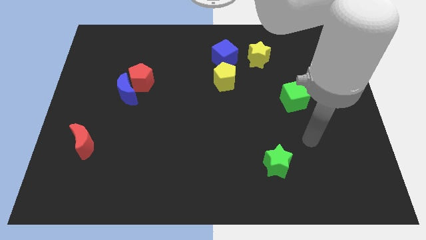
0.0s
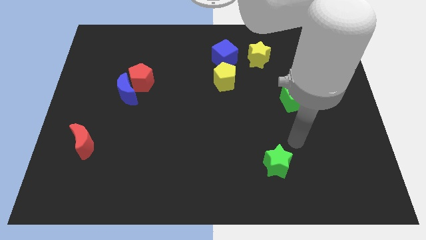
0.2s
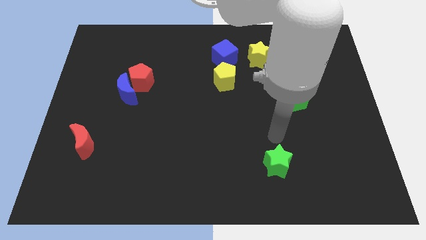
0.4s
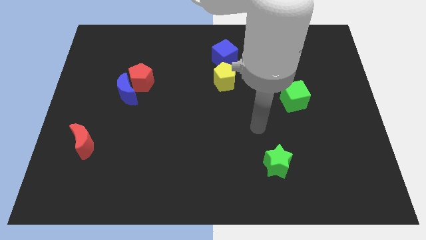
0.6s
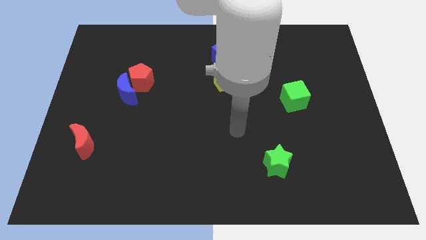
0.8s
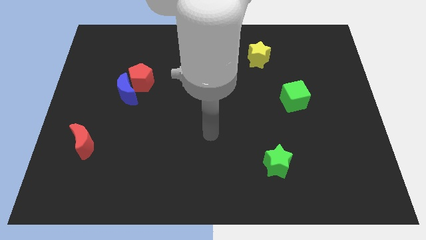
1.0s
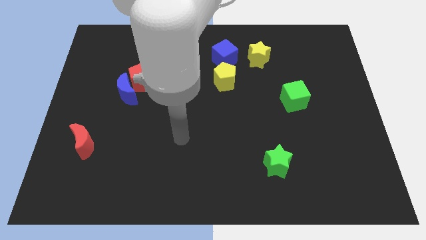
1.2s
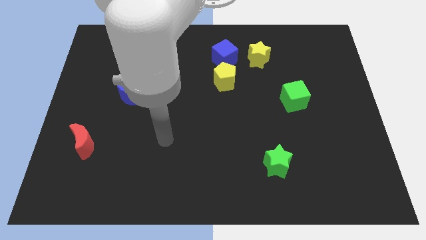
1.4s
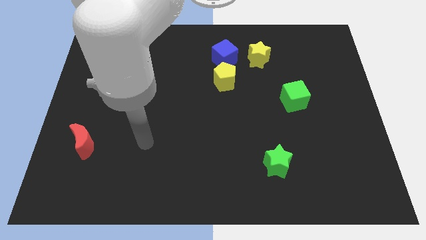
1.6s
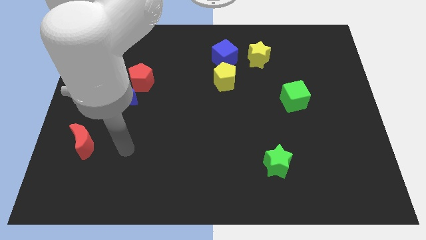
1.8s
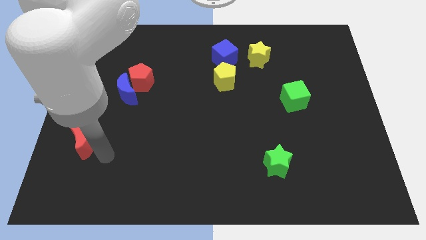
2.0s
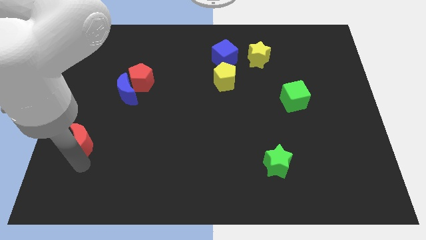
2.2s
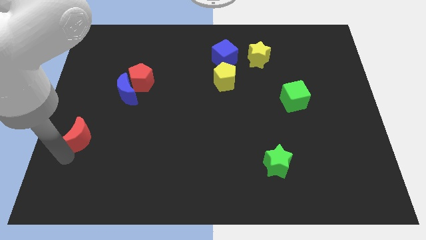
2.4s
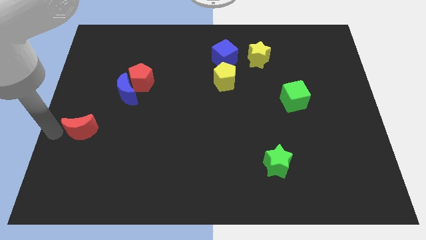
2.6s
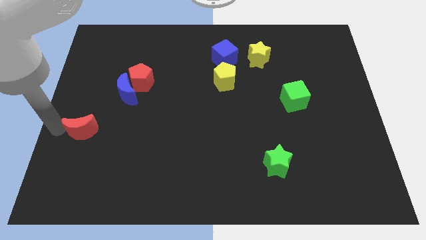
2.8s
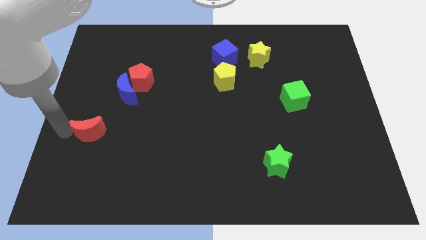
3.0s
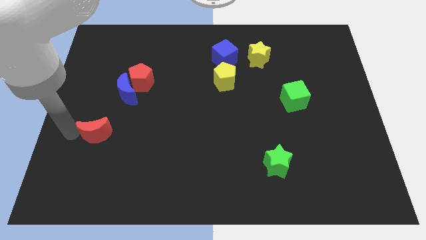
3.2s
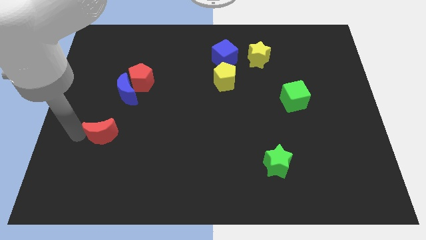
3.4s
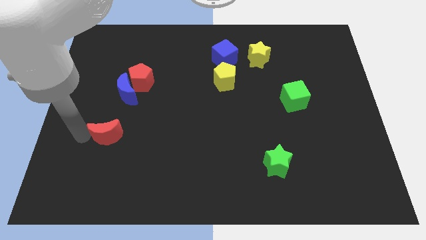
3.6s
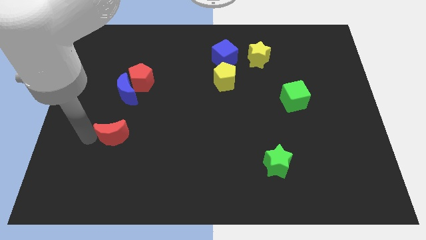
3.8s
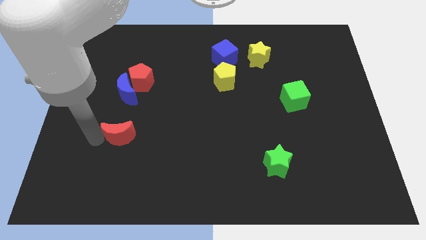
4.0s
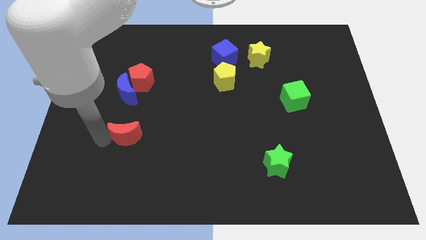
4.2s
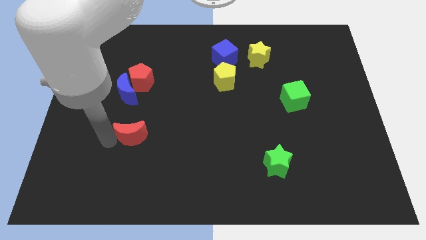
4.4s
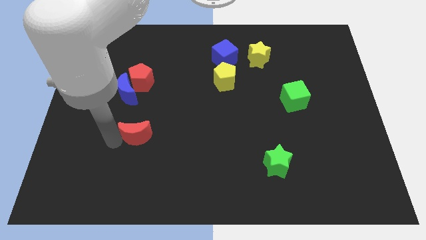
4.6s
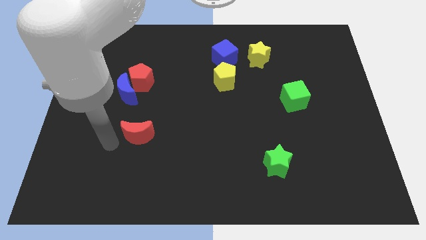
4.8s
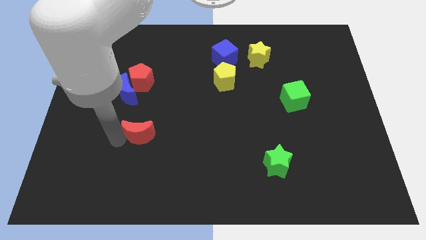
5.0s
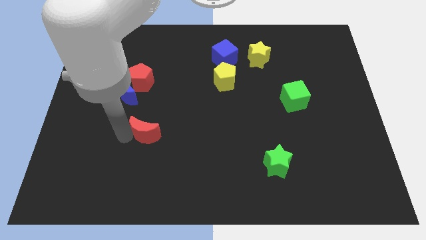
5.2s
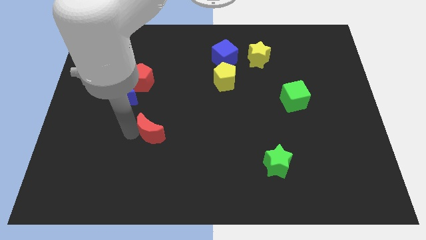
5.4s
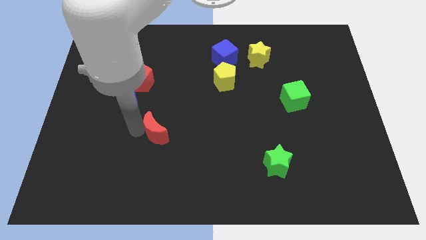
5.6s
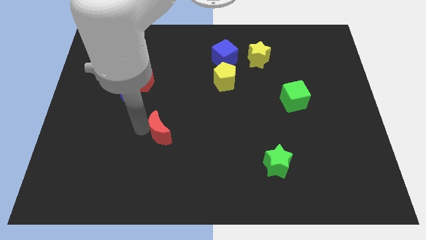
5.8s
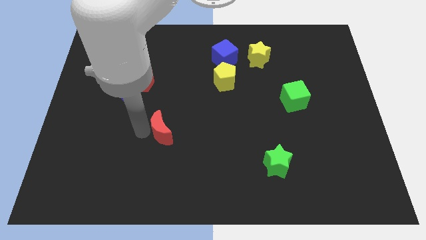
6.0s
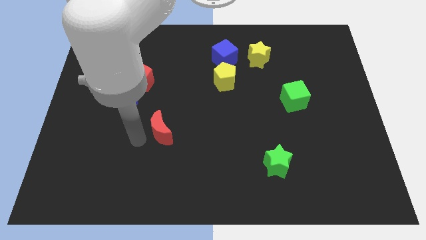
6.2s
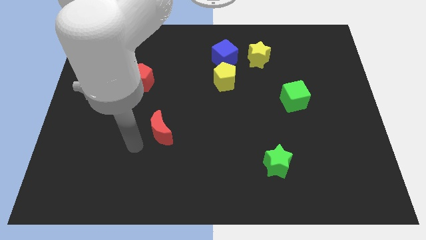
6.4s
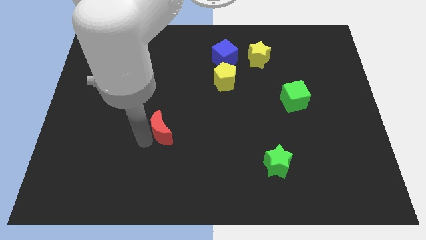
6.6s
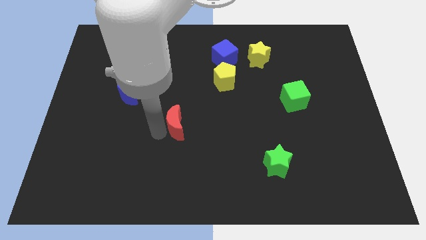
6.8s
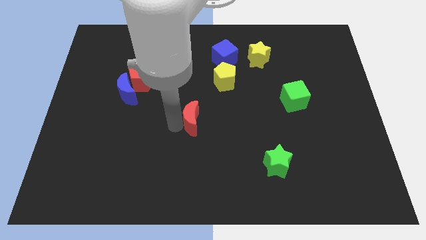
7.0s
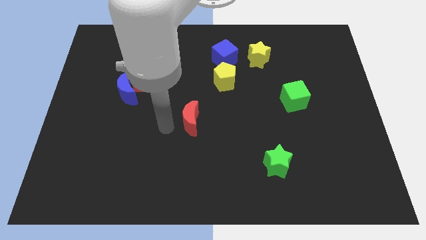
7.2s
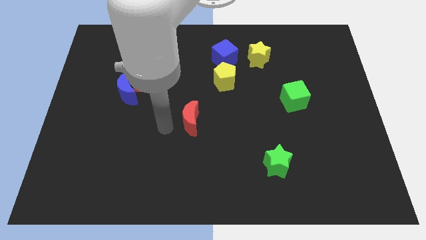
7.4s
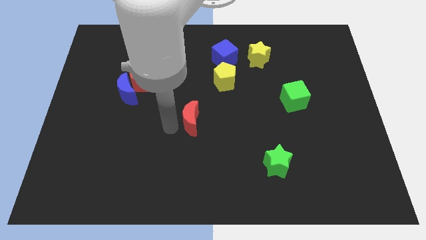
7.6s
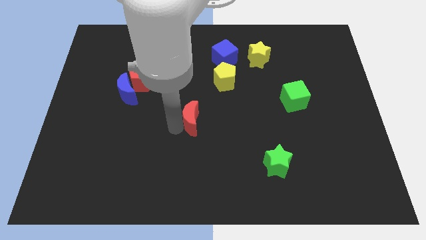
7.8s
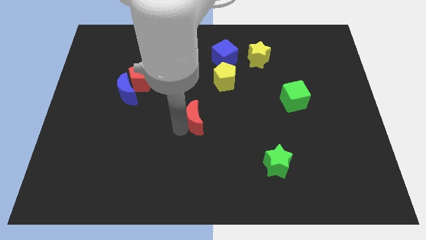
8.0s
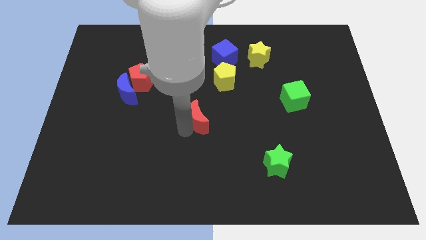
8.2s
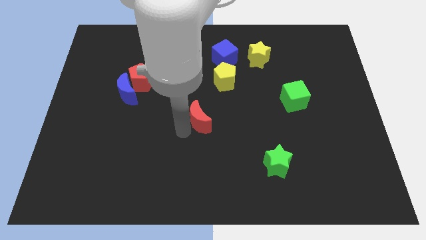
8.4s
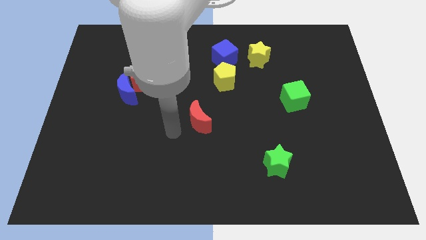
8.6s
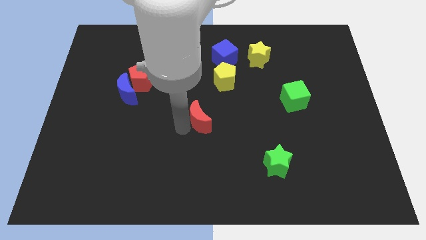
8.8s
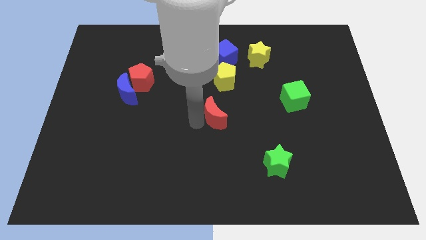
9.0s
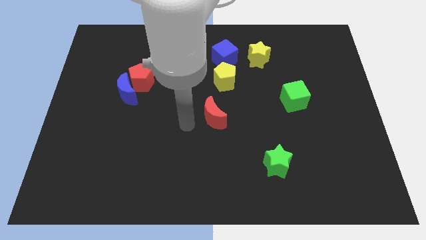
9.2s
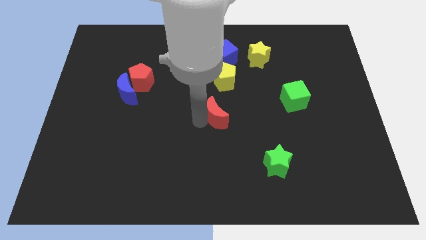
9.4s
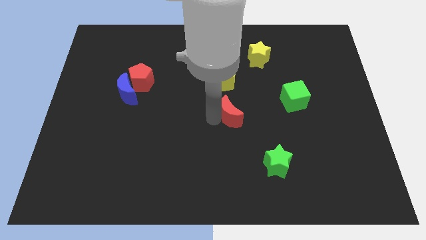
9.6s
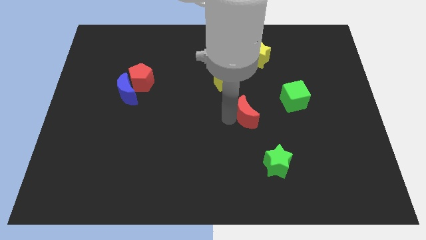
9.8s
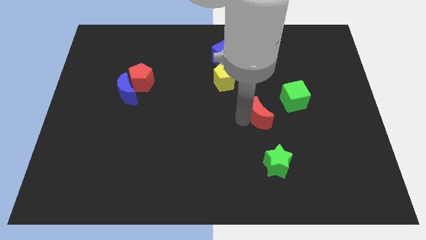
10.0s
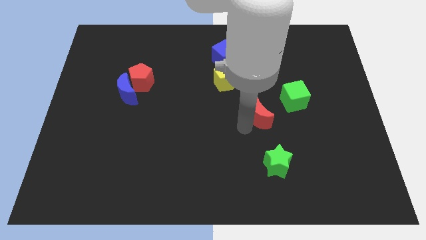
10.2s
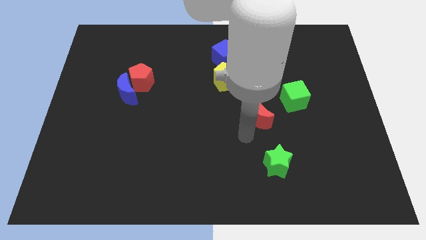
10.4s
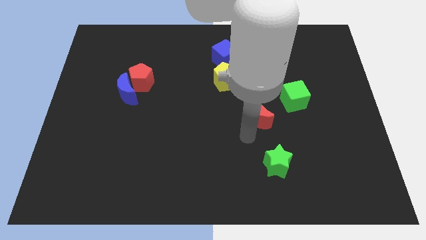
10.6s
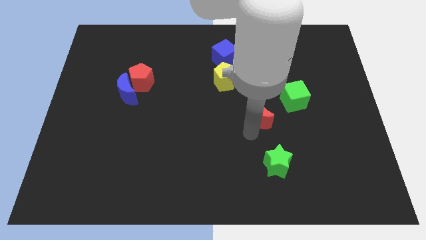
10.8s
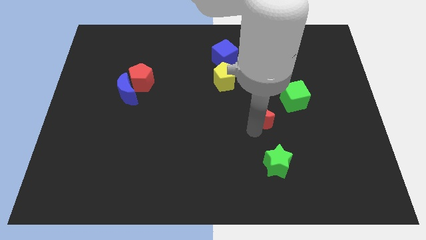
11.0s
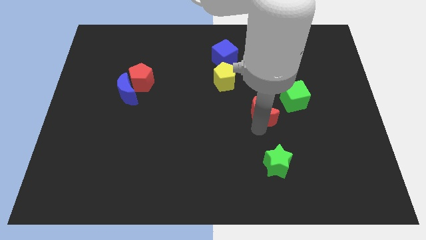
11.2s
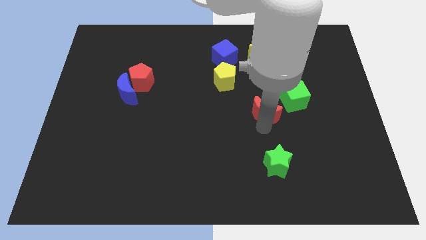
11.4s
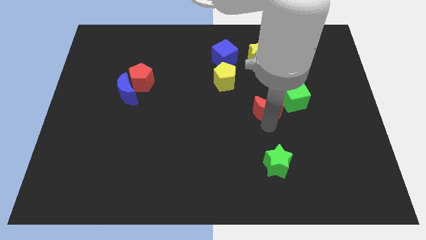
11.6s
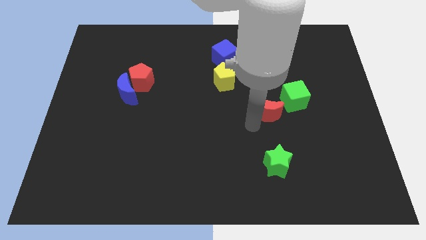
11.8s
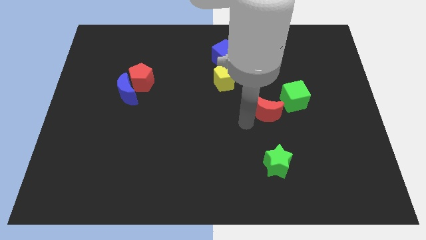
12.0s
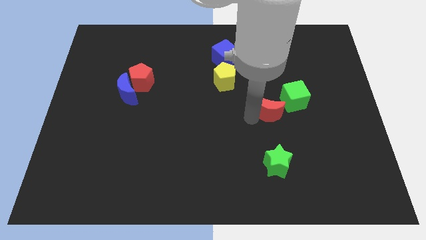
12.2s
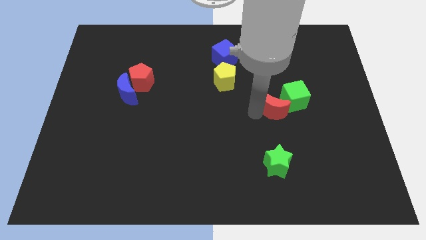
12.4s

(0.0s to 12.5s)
push the red moon to the green cube

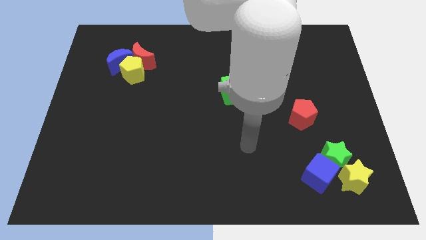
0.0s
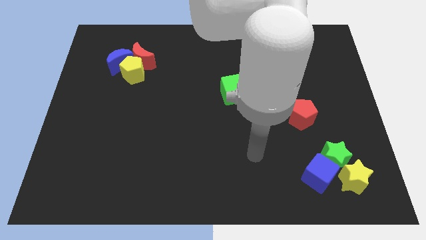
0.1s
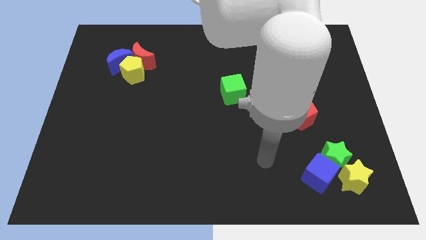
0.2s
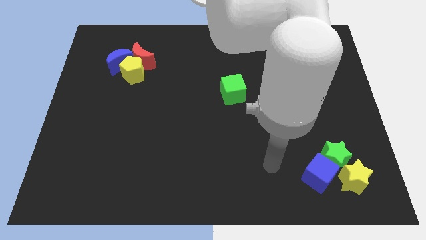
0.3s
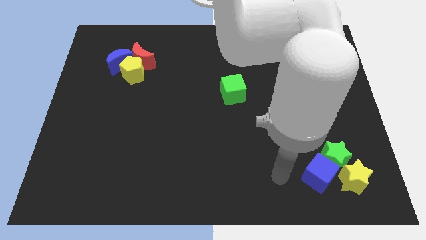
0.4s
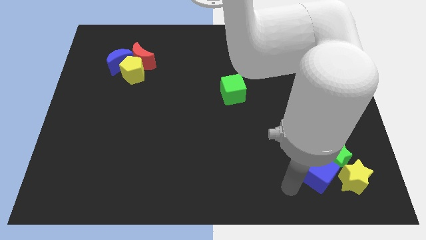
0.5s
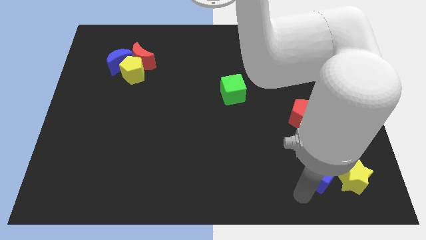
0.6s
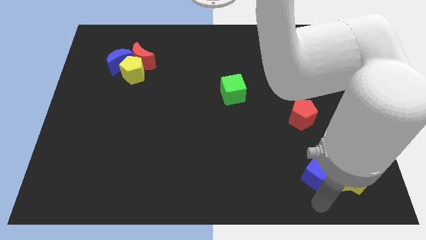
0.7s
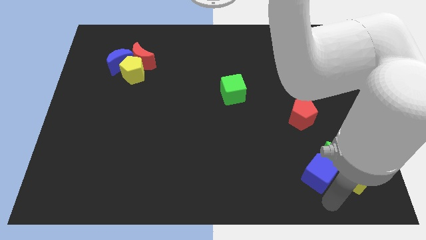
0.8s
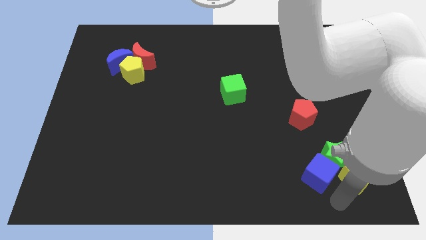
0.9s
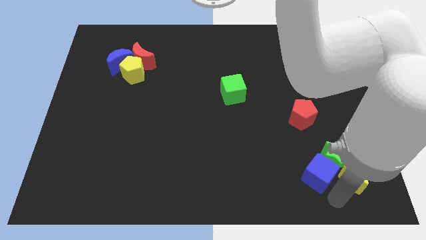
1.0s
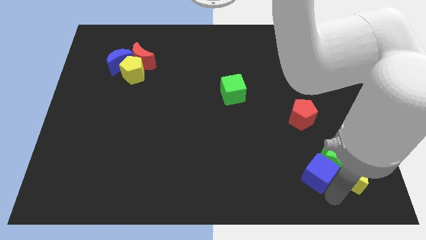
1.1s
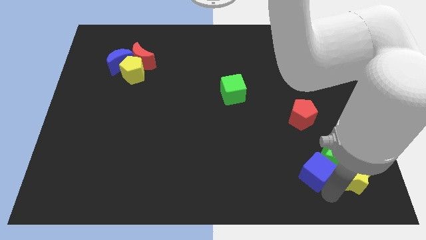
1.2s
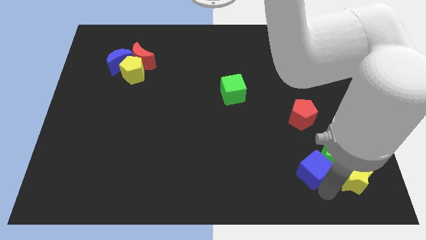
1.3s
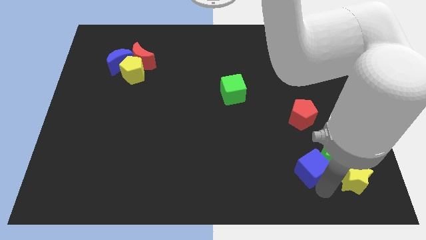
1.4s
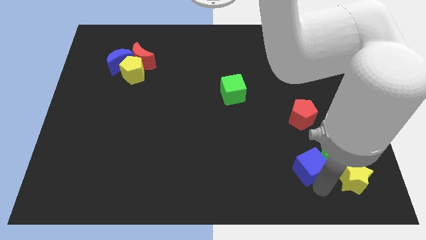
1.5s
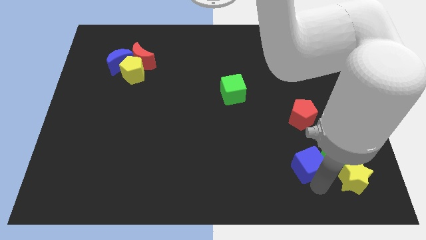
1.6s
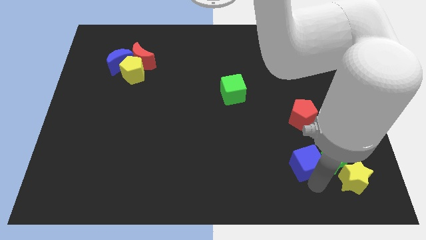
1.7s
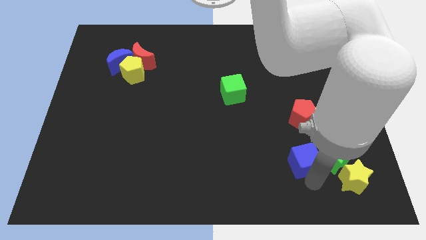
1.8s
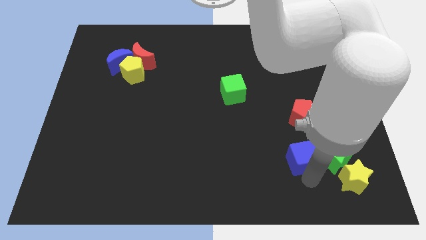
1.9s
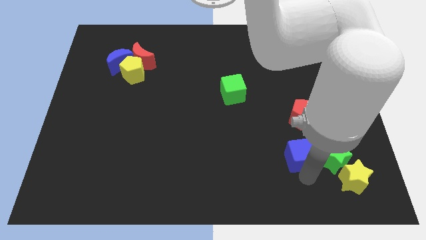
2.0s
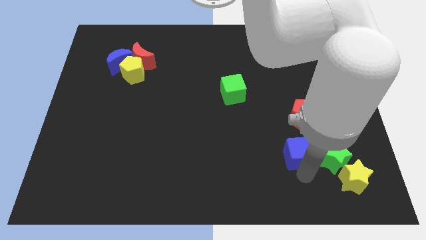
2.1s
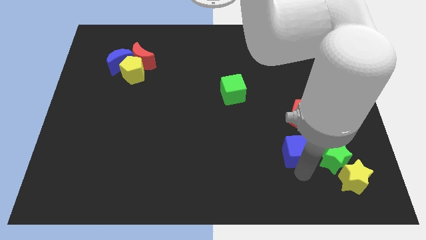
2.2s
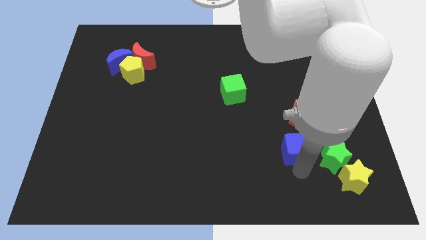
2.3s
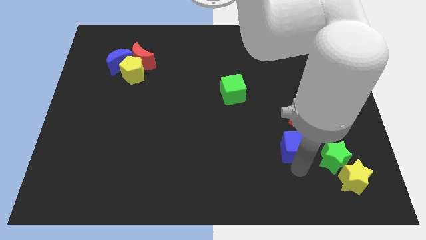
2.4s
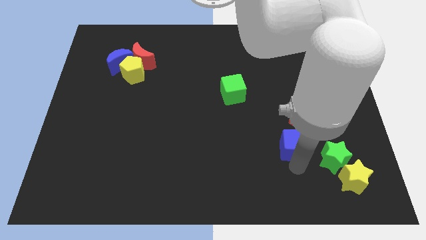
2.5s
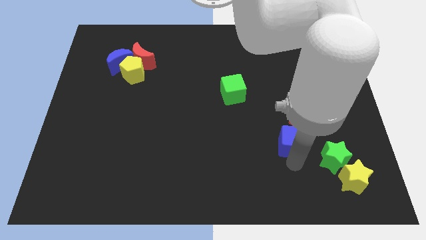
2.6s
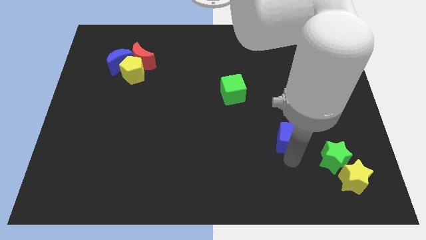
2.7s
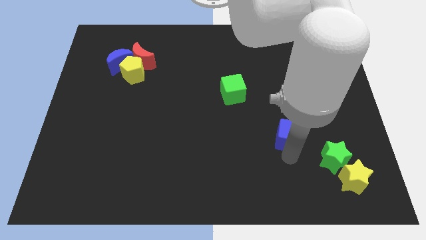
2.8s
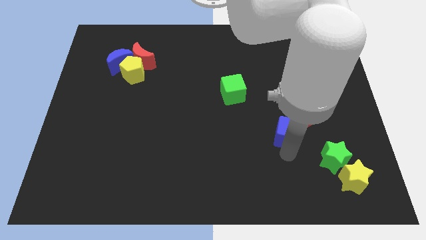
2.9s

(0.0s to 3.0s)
push the blue cube towards the red pentagon
